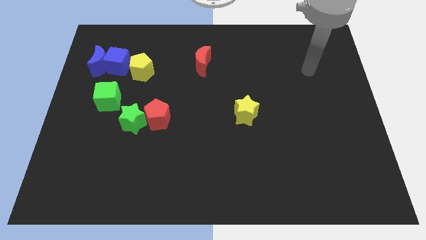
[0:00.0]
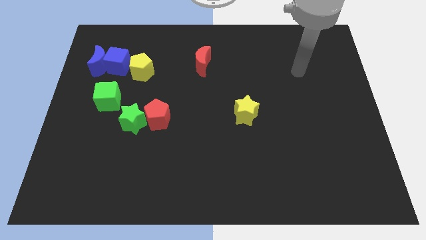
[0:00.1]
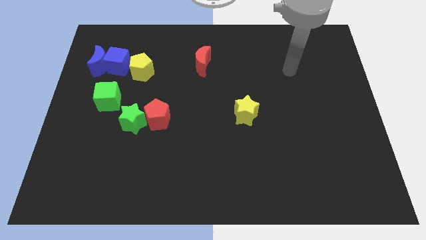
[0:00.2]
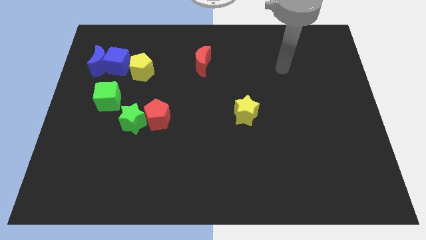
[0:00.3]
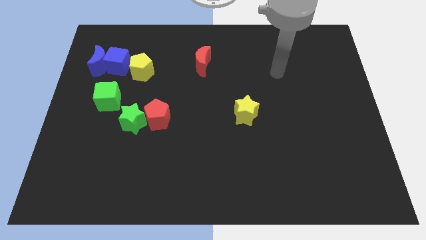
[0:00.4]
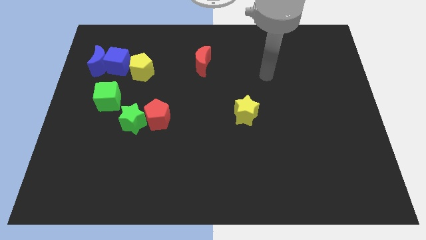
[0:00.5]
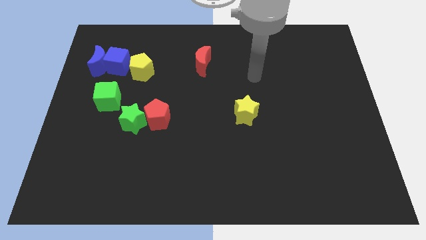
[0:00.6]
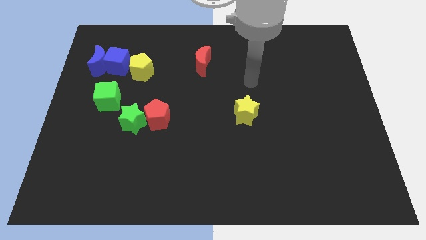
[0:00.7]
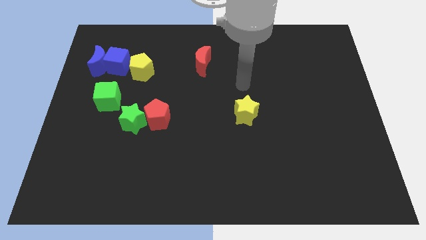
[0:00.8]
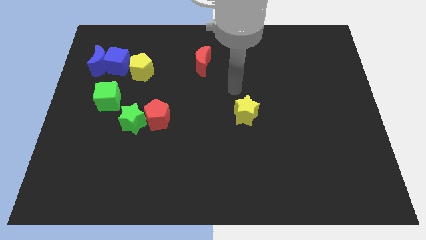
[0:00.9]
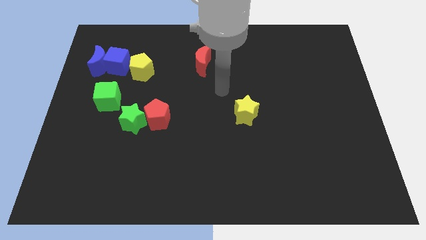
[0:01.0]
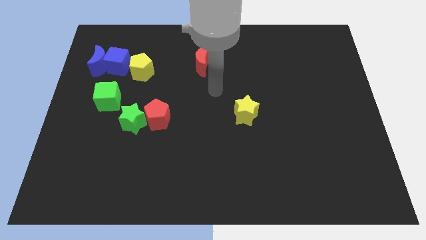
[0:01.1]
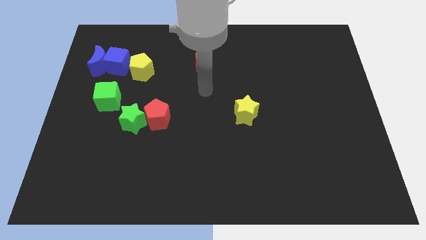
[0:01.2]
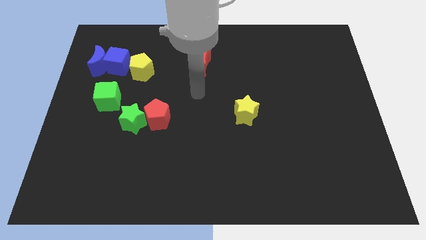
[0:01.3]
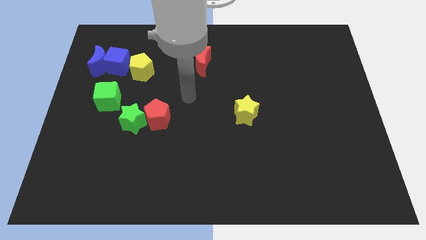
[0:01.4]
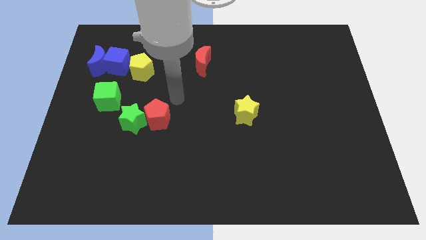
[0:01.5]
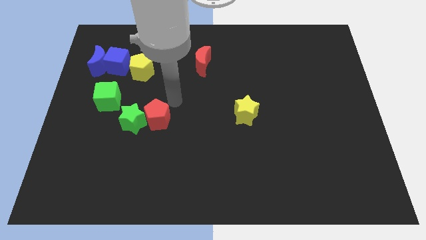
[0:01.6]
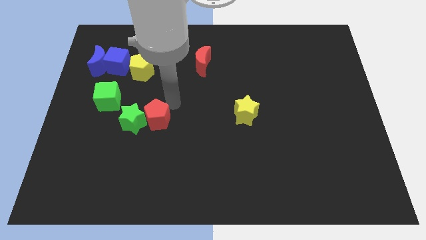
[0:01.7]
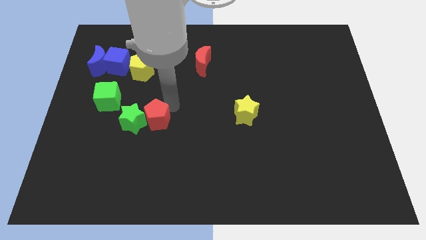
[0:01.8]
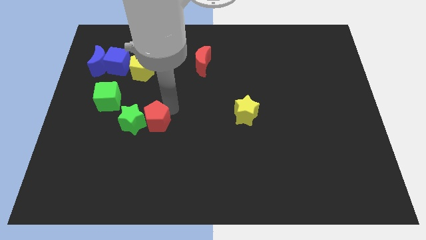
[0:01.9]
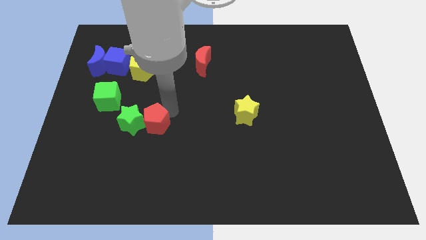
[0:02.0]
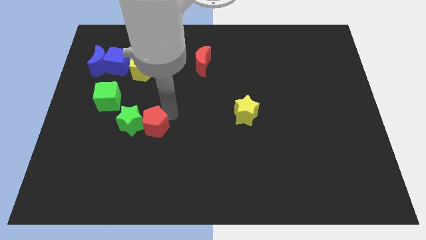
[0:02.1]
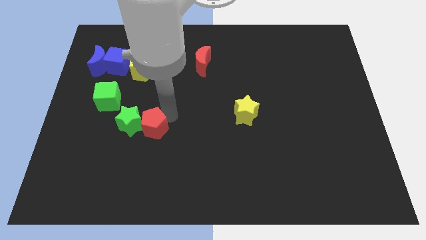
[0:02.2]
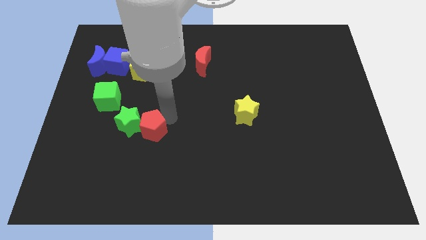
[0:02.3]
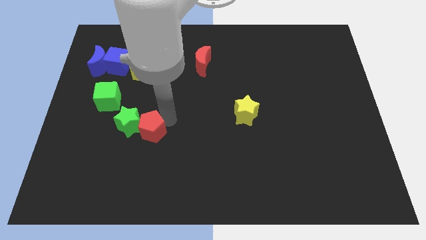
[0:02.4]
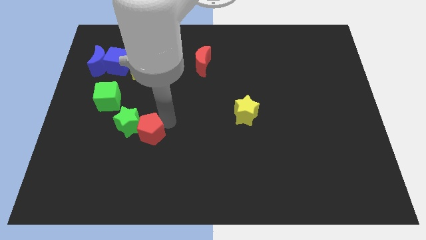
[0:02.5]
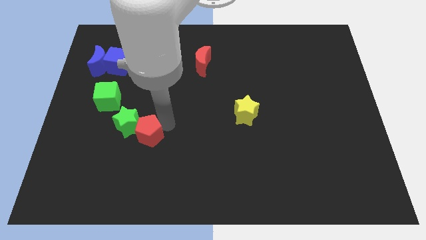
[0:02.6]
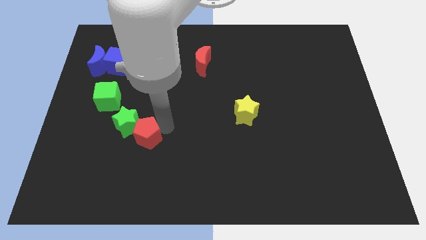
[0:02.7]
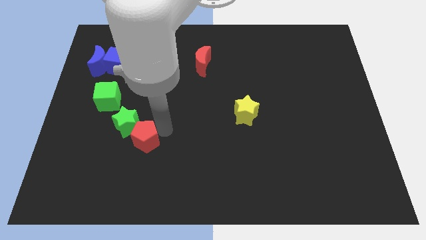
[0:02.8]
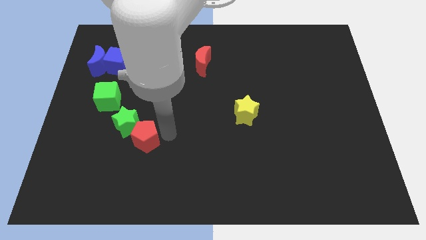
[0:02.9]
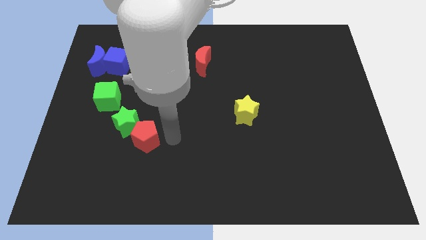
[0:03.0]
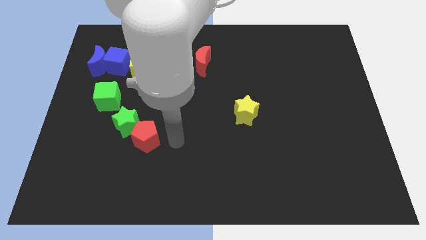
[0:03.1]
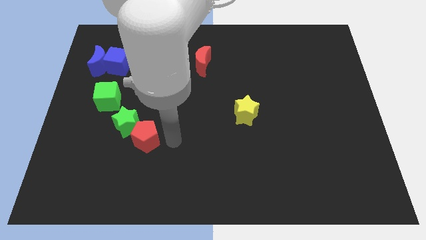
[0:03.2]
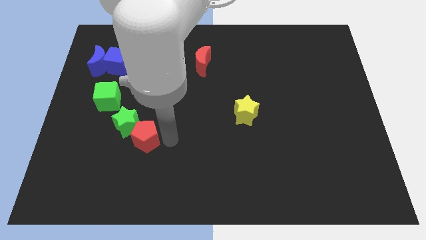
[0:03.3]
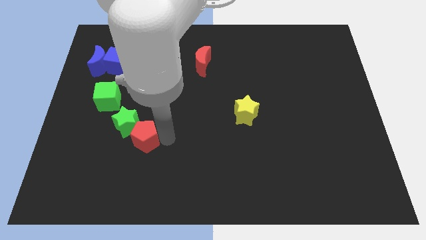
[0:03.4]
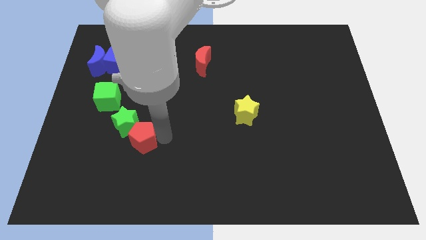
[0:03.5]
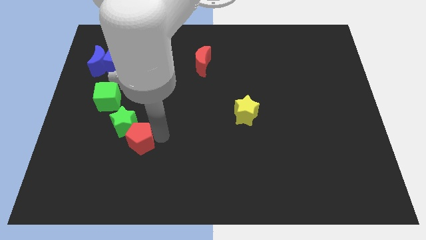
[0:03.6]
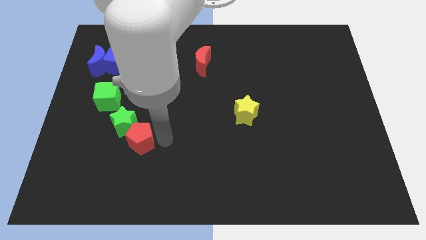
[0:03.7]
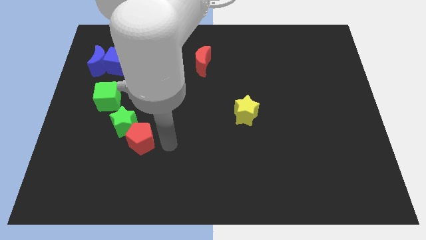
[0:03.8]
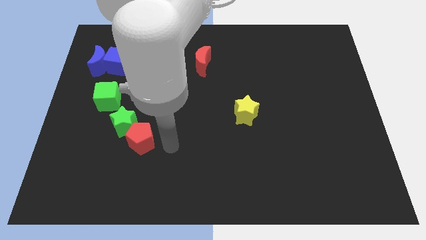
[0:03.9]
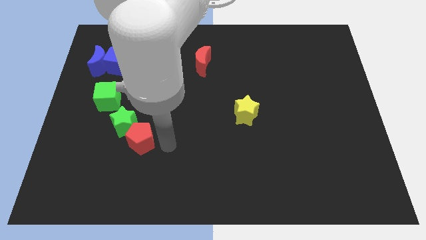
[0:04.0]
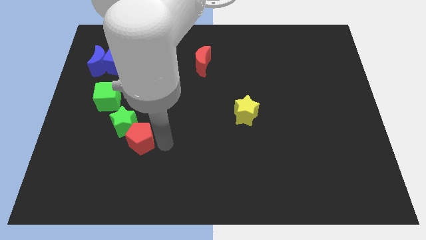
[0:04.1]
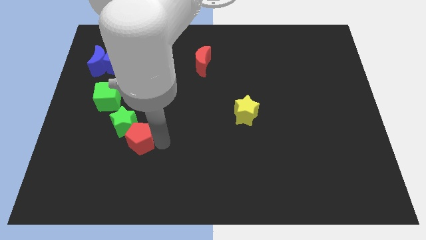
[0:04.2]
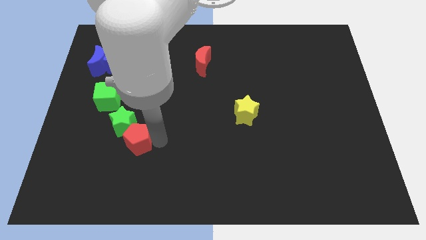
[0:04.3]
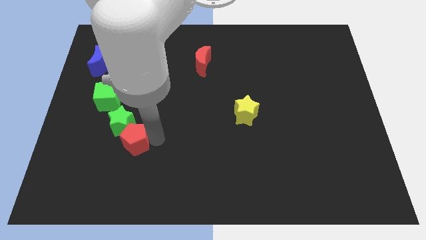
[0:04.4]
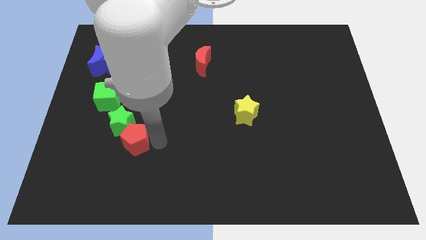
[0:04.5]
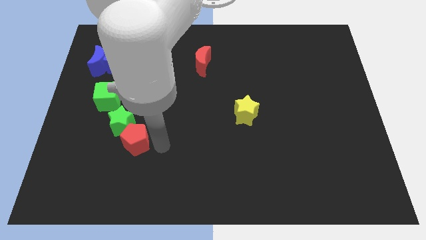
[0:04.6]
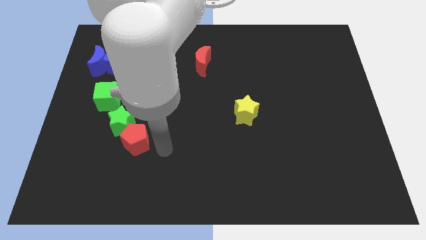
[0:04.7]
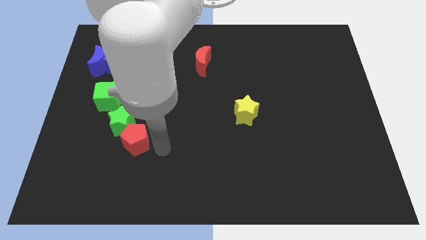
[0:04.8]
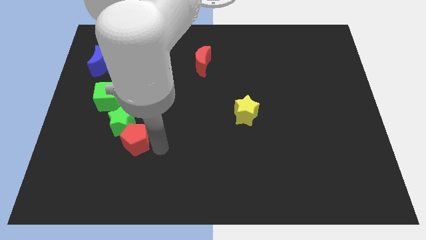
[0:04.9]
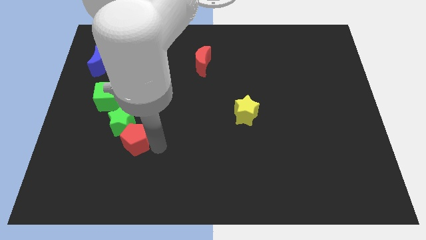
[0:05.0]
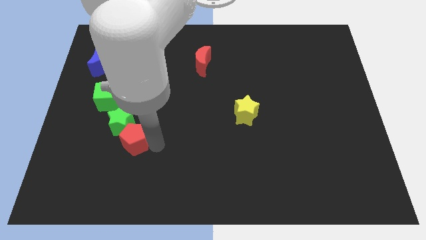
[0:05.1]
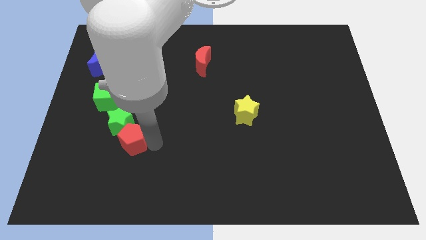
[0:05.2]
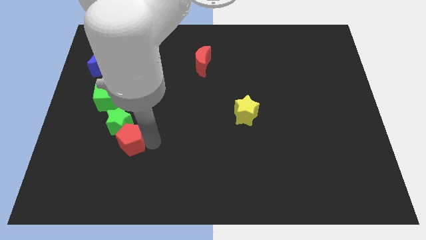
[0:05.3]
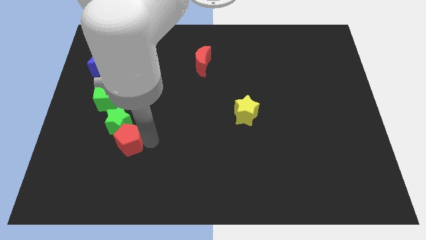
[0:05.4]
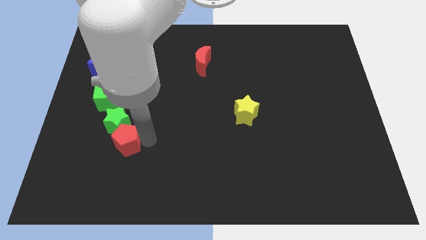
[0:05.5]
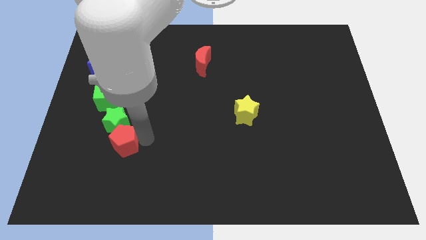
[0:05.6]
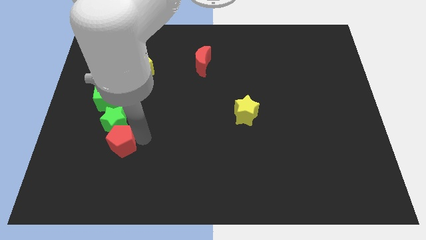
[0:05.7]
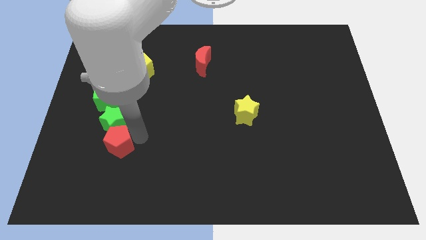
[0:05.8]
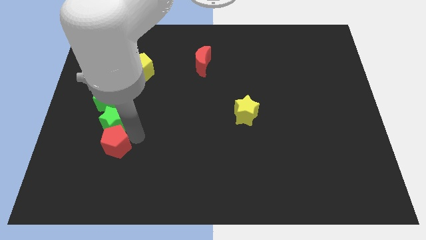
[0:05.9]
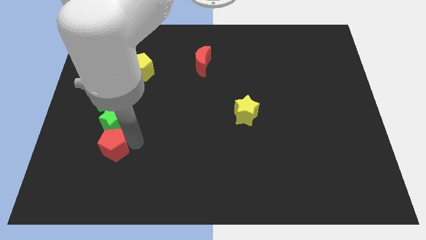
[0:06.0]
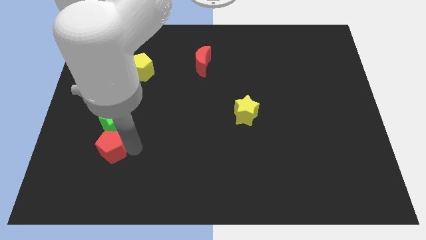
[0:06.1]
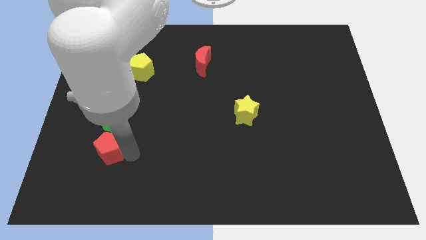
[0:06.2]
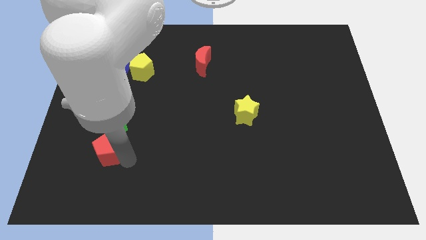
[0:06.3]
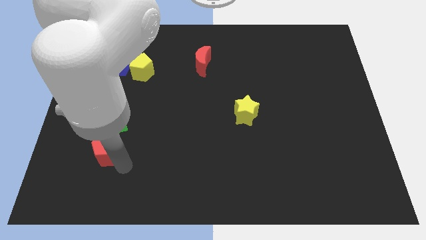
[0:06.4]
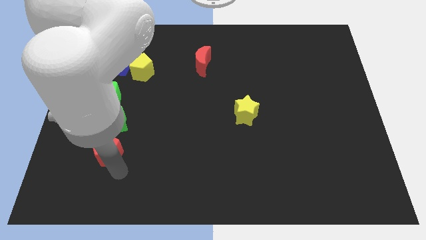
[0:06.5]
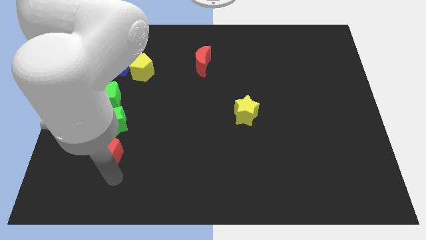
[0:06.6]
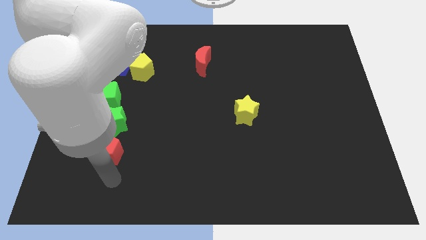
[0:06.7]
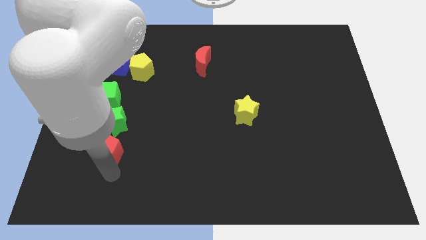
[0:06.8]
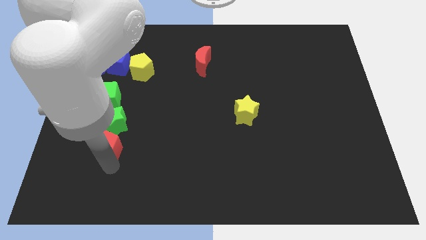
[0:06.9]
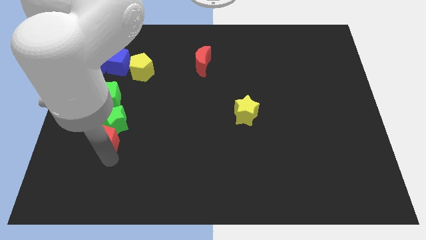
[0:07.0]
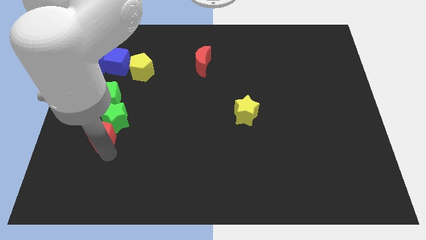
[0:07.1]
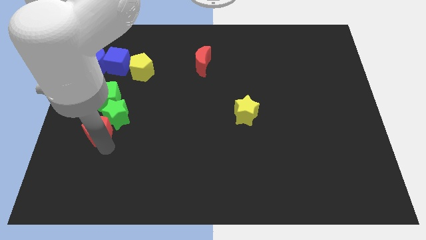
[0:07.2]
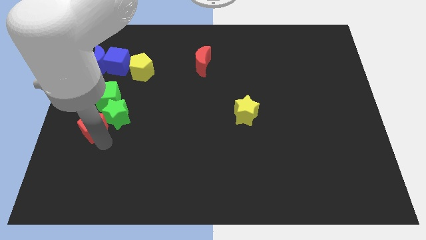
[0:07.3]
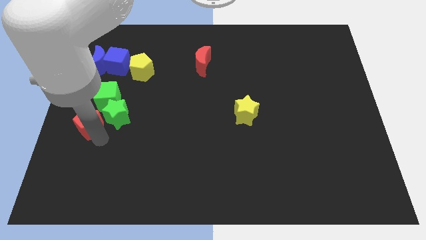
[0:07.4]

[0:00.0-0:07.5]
move the red pentagon to the center left
